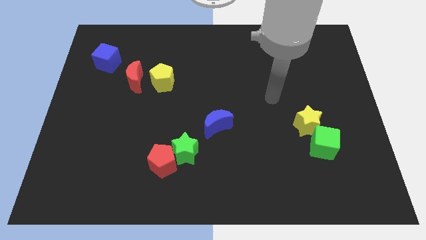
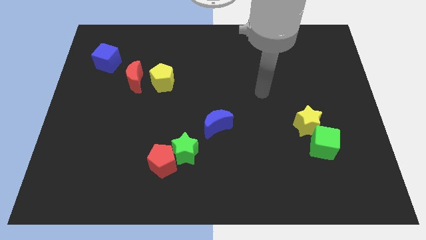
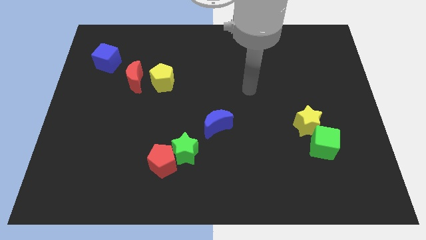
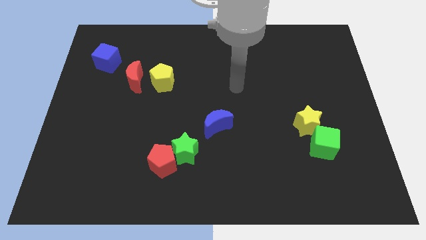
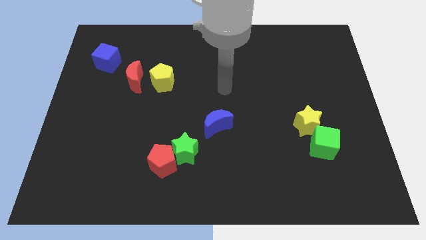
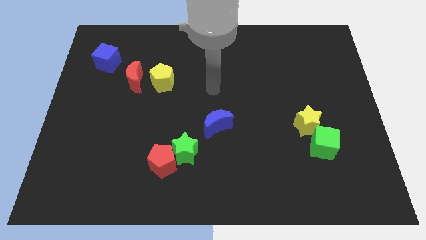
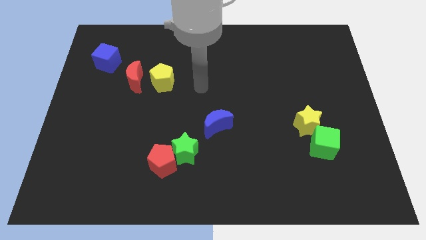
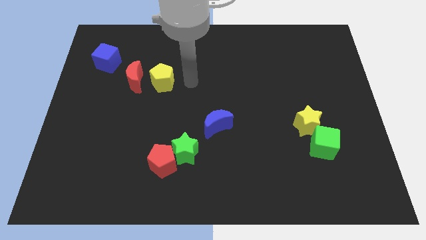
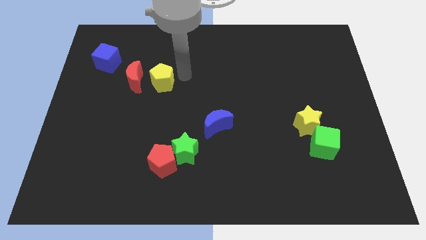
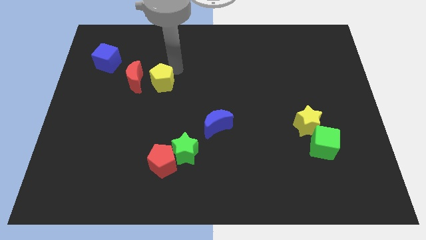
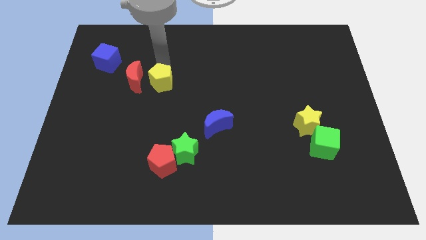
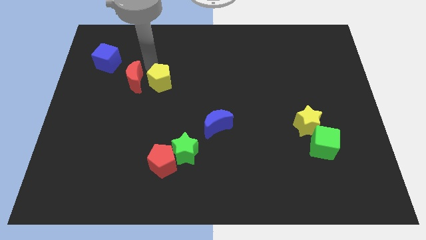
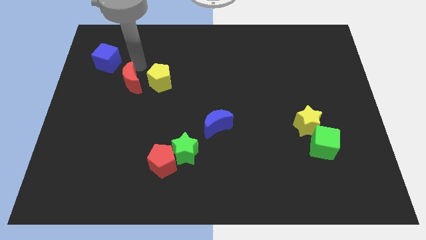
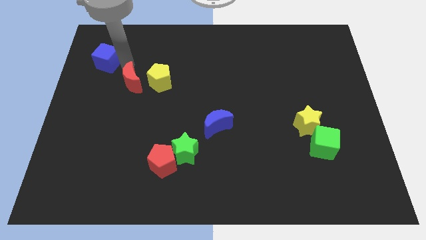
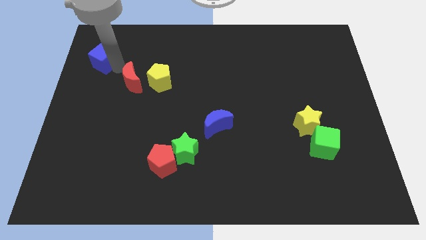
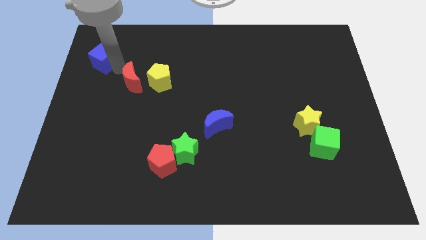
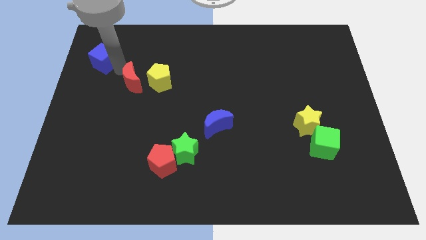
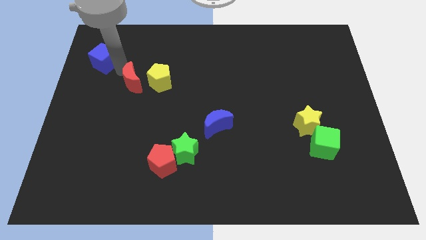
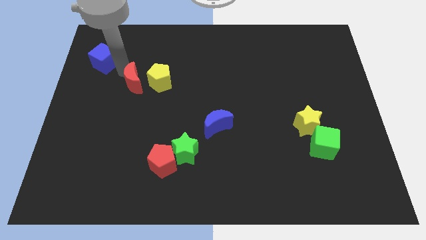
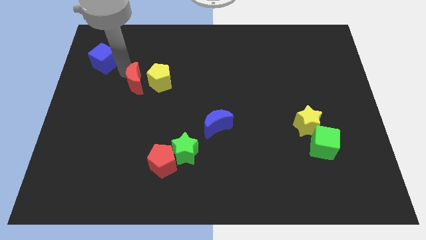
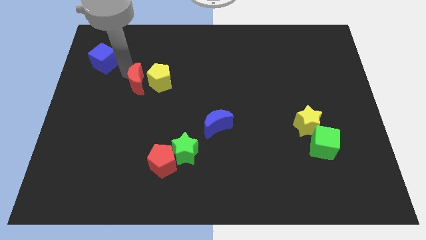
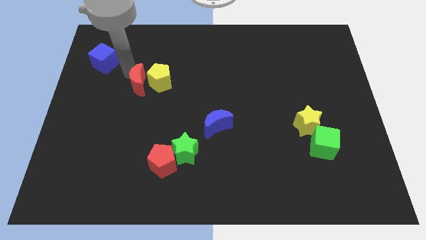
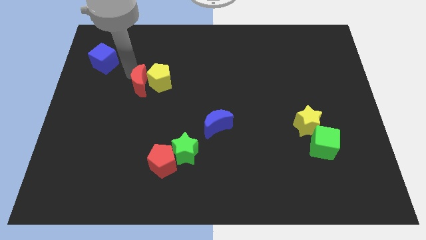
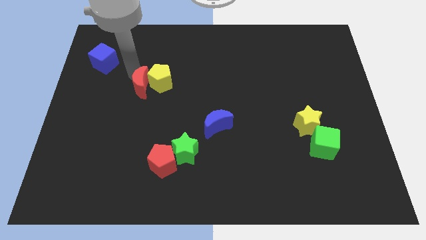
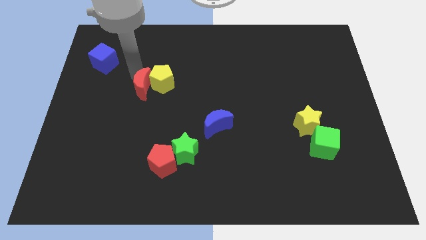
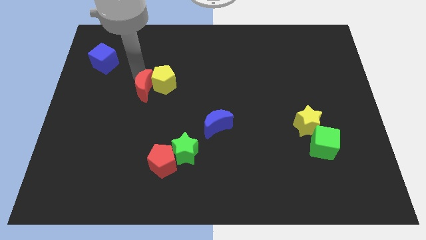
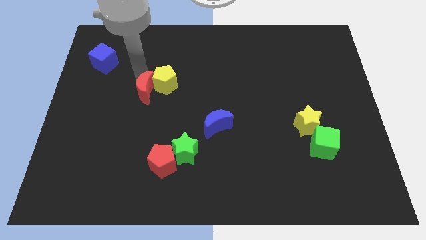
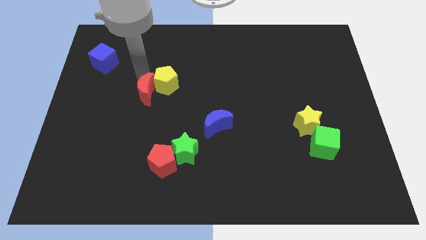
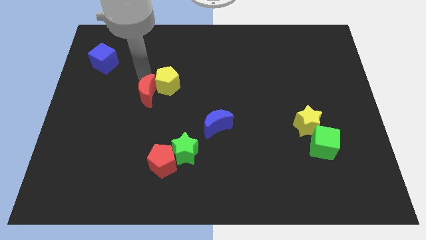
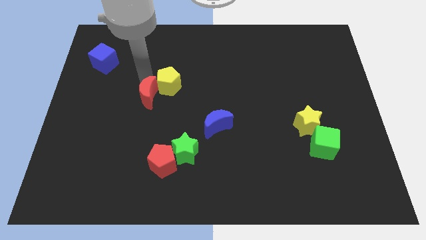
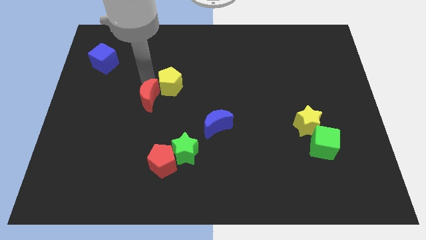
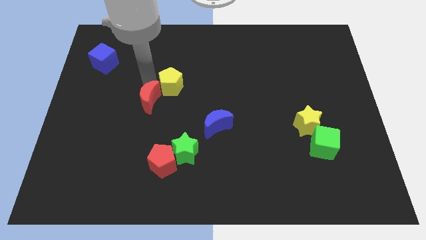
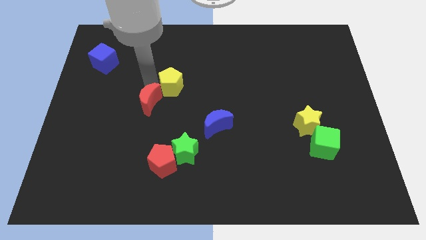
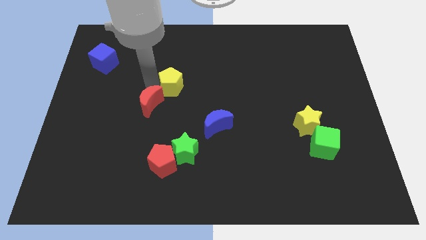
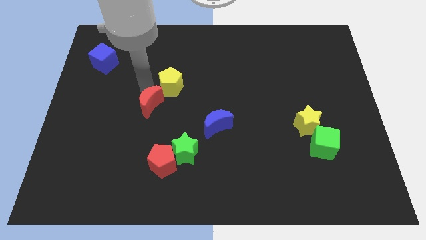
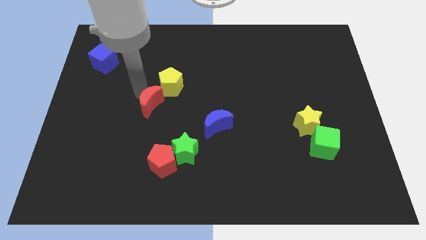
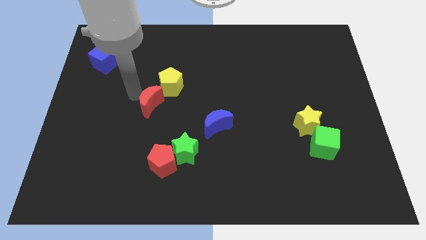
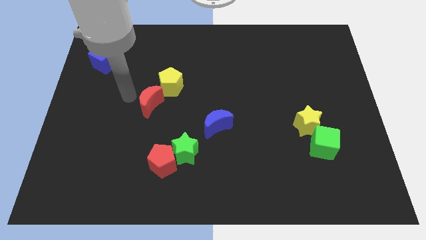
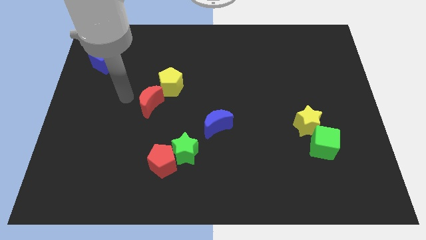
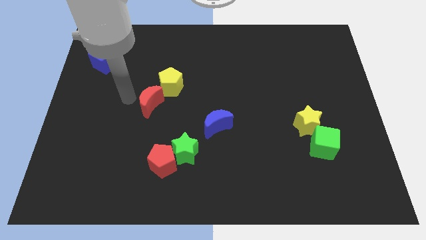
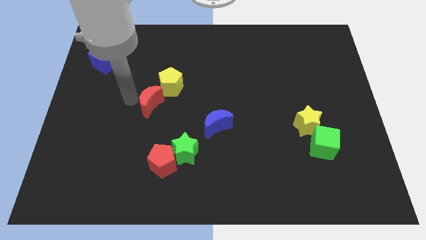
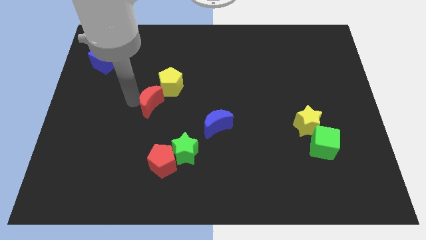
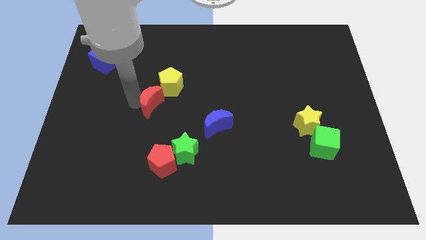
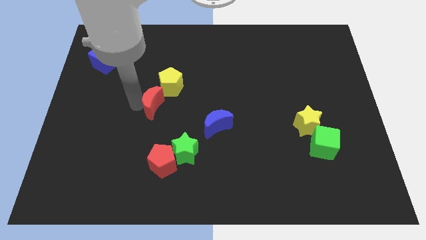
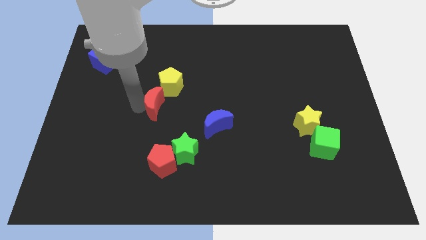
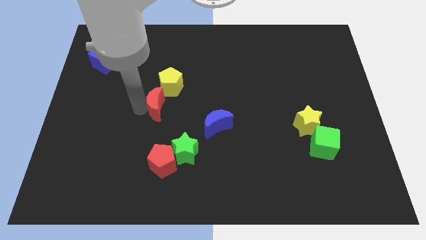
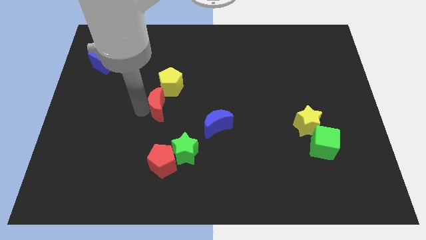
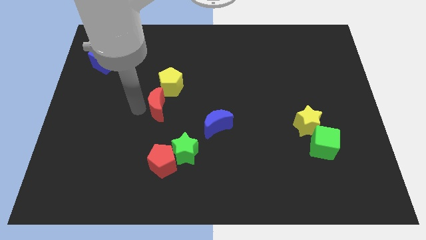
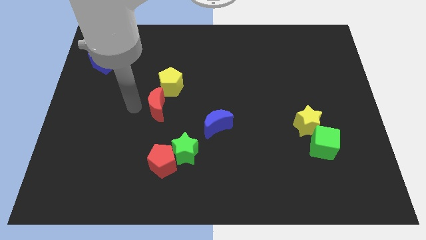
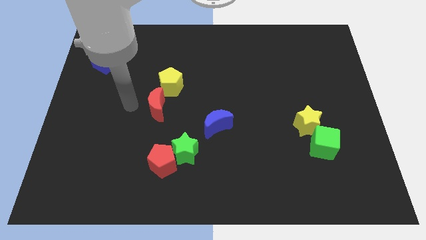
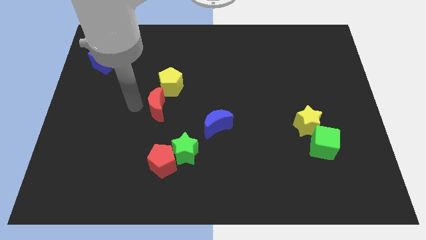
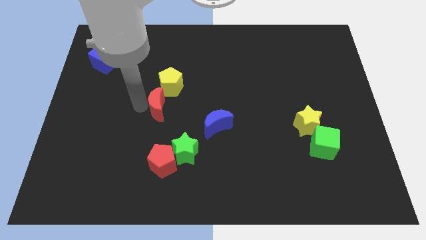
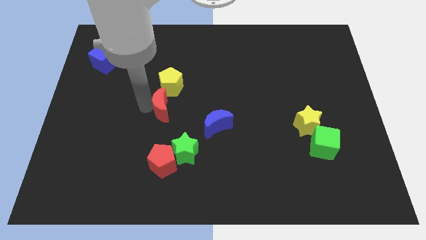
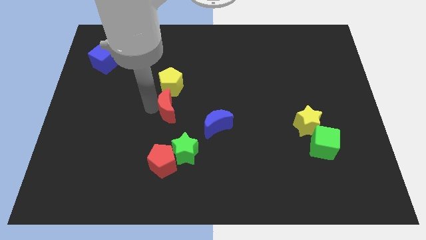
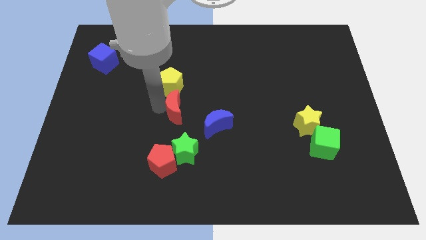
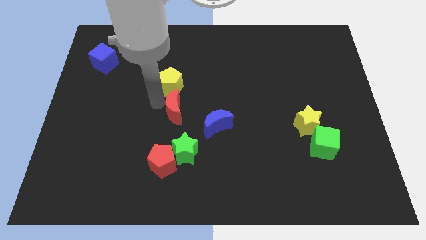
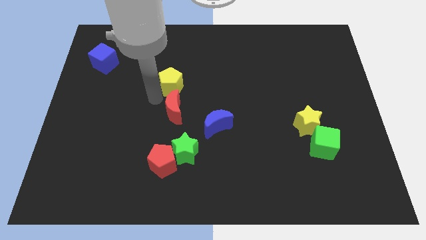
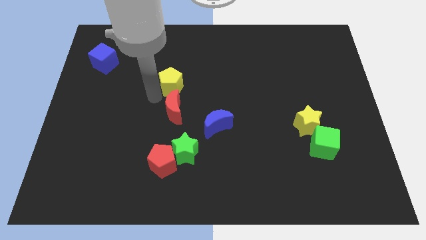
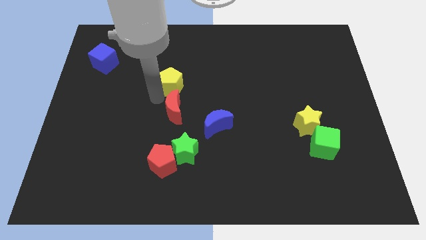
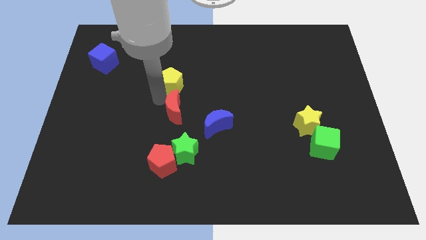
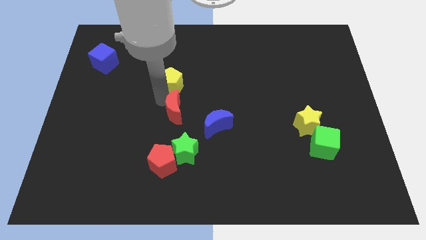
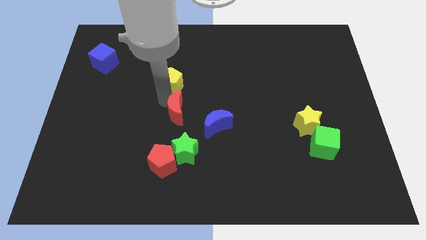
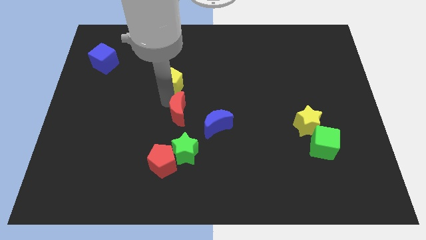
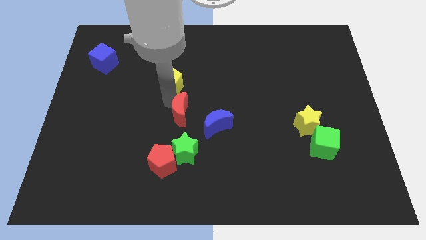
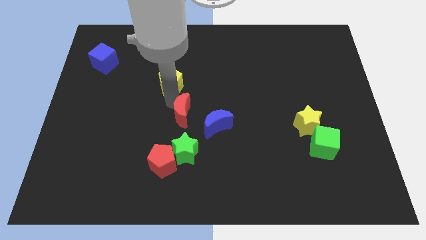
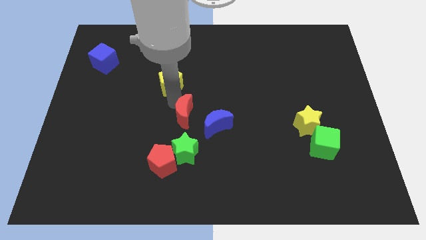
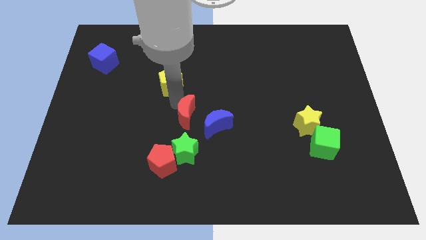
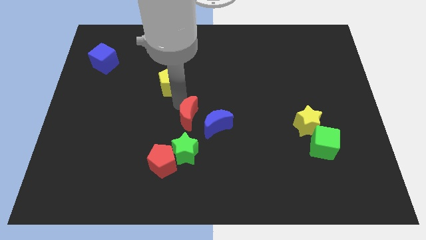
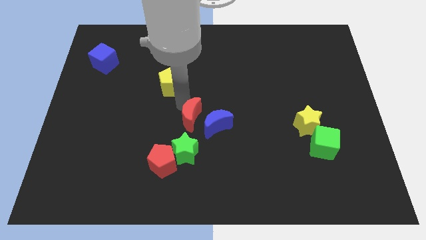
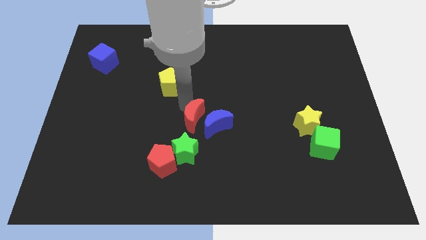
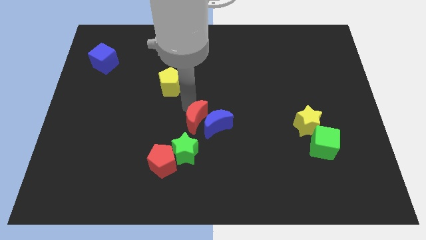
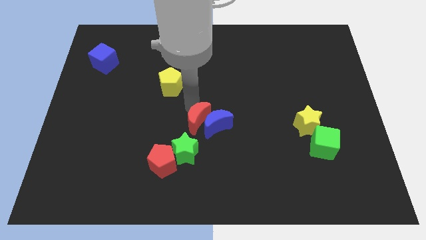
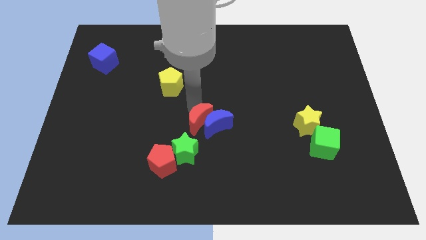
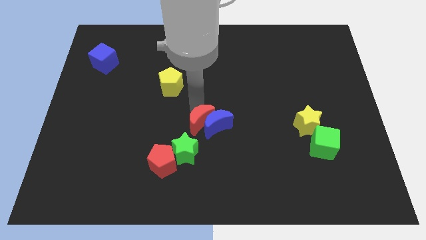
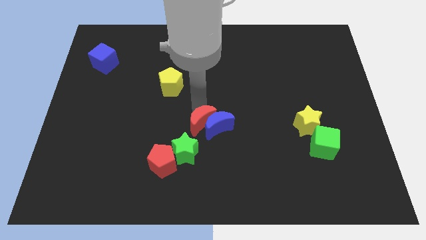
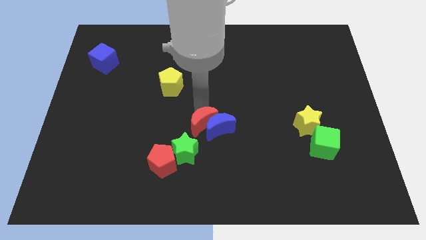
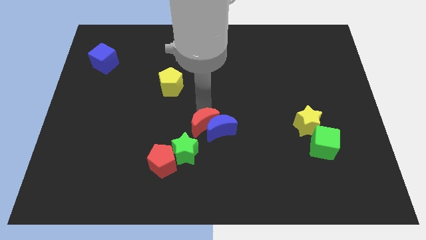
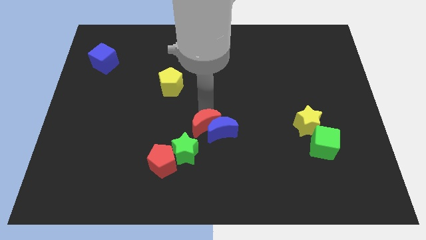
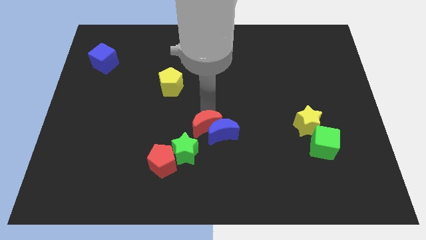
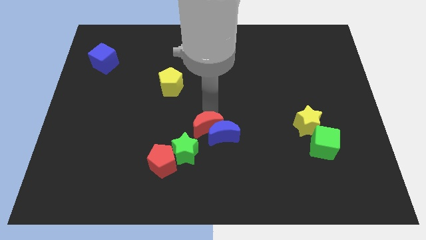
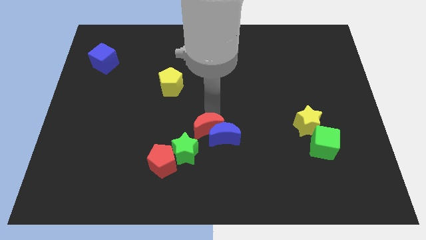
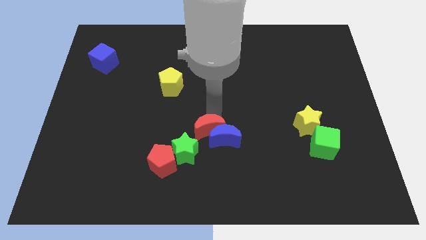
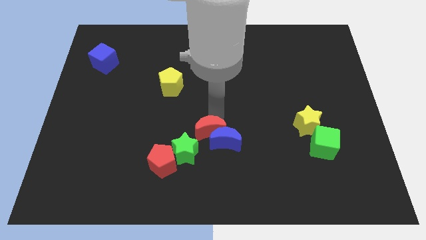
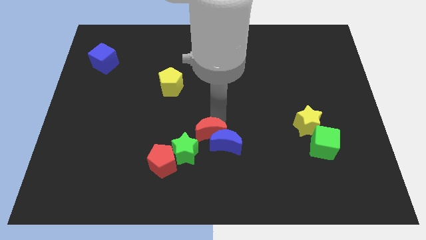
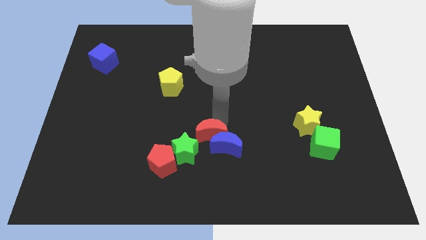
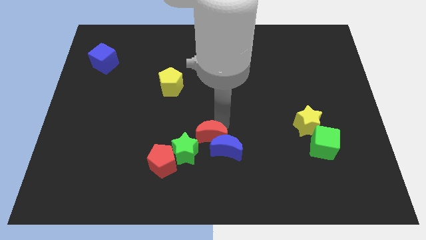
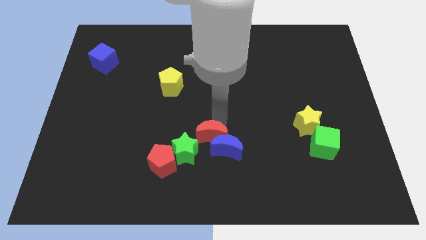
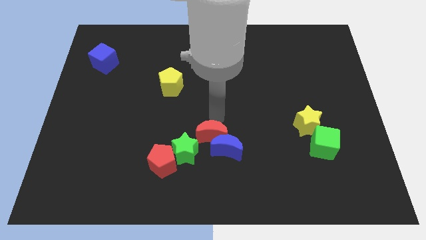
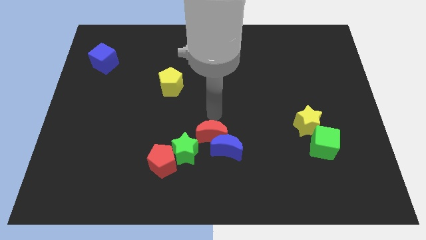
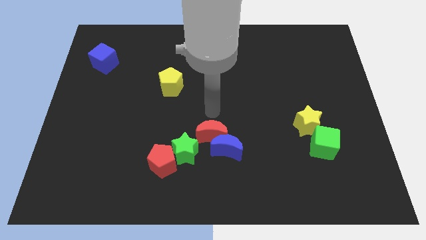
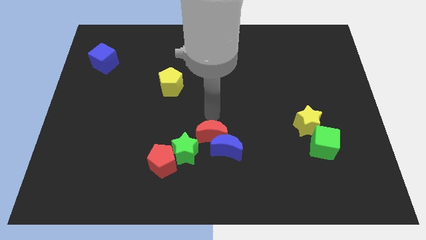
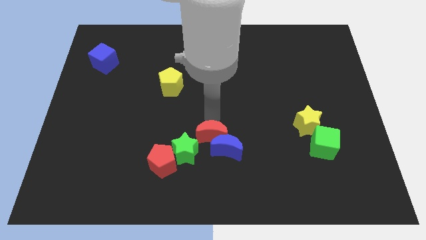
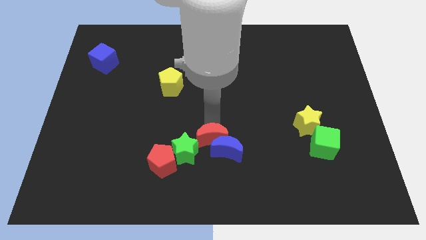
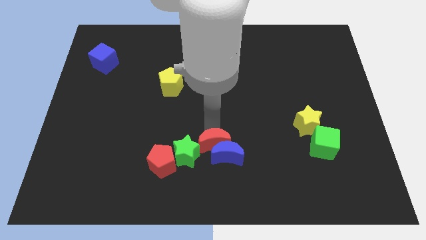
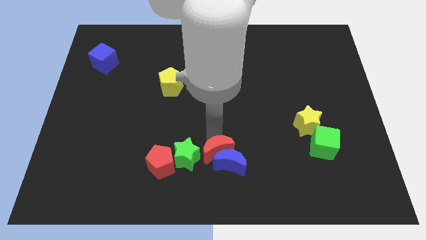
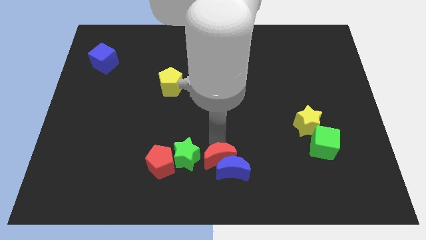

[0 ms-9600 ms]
put the red moon to the bottom right of the green star
